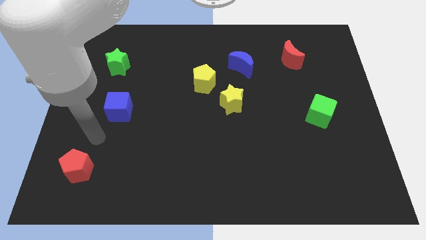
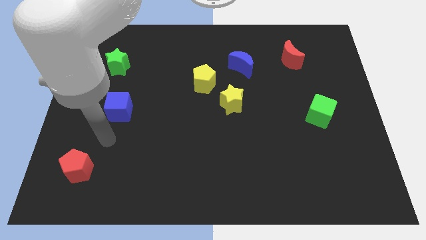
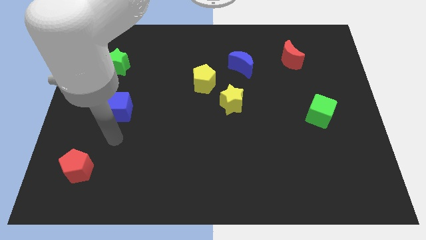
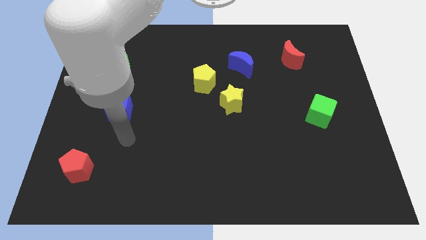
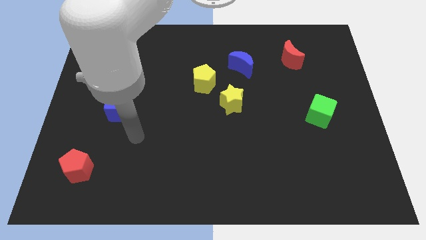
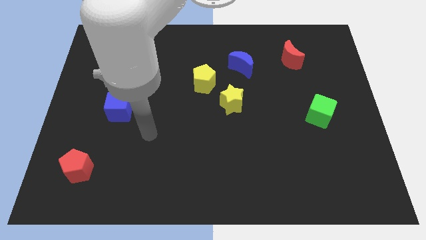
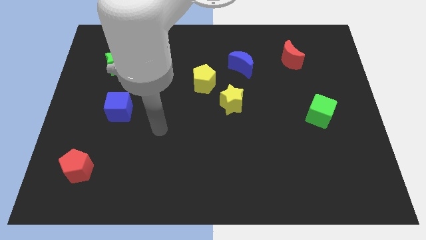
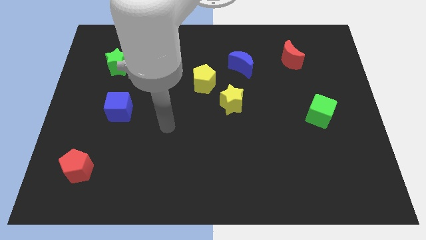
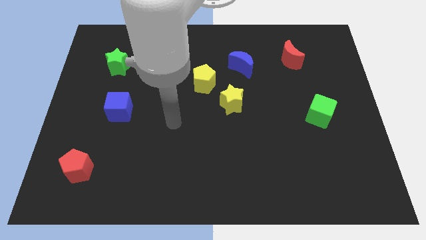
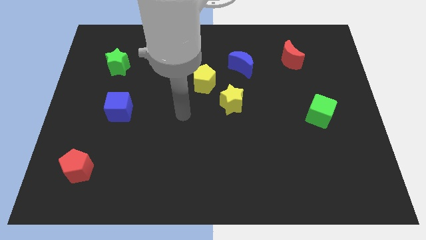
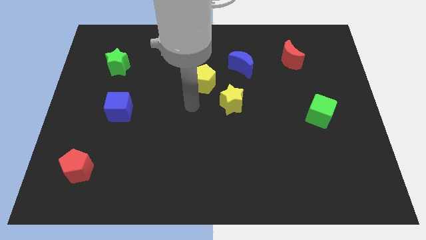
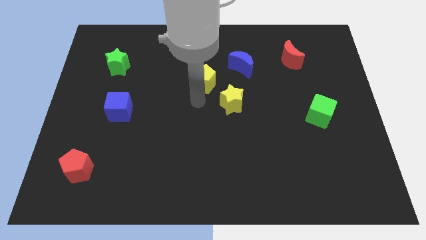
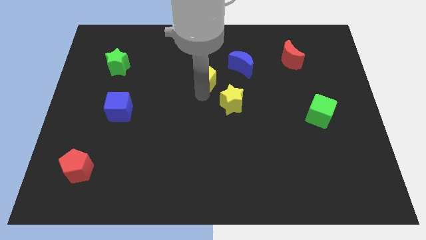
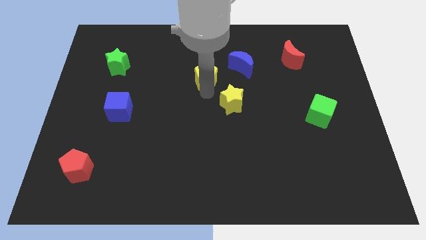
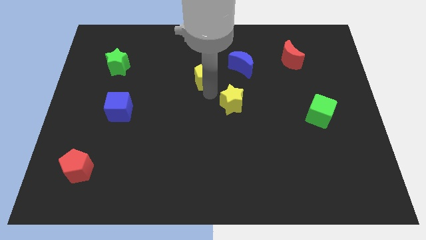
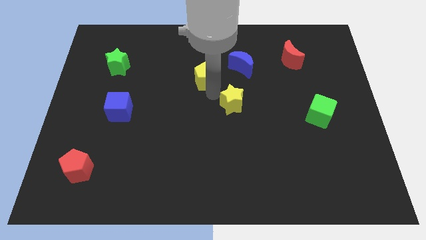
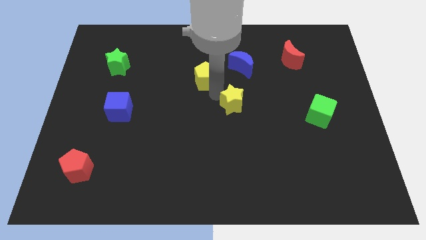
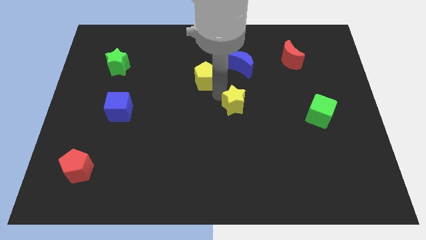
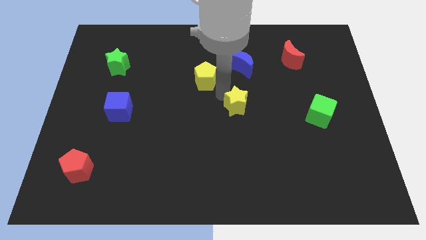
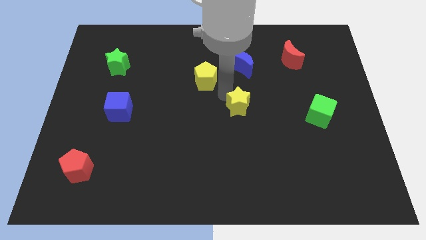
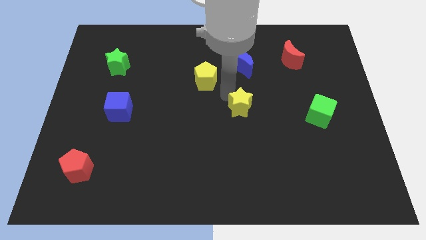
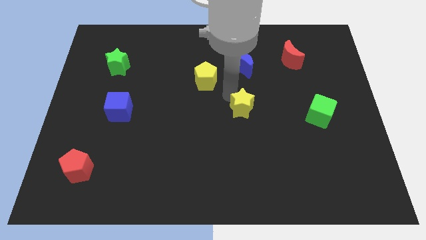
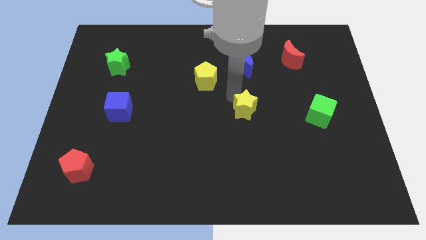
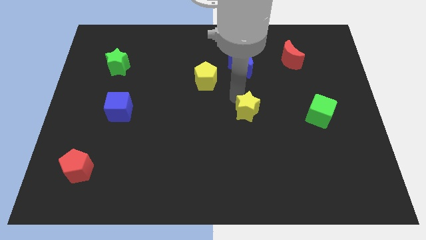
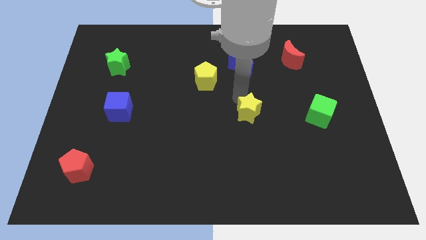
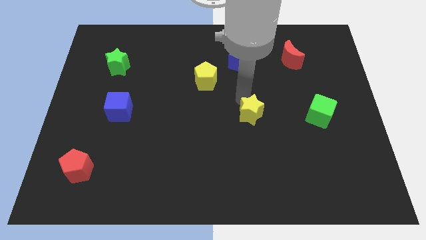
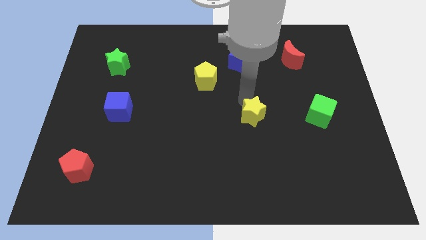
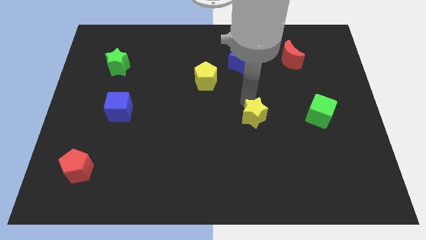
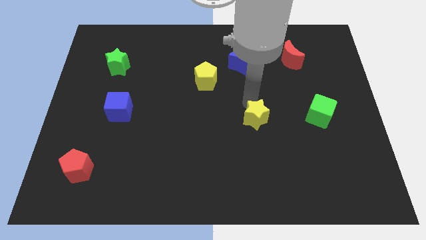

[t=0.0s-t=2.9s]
move the yellow star slightly down and right

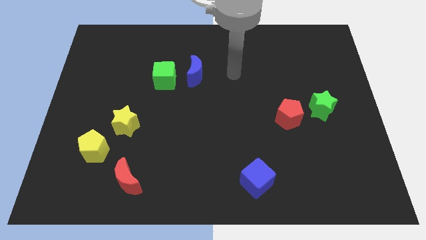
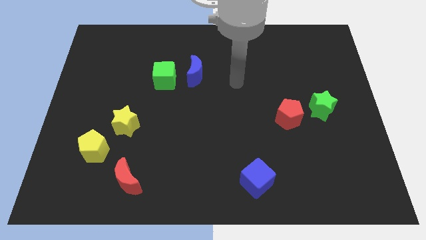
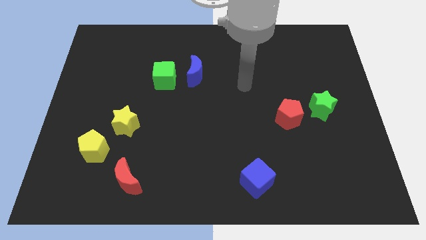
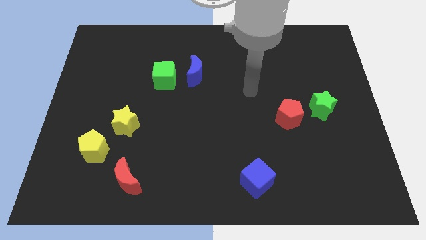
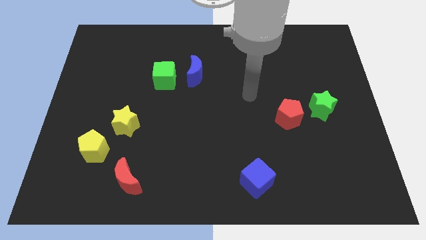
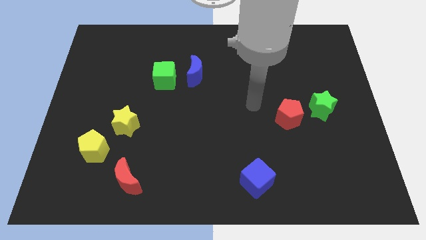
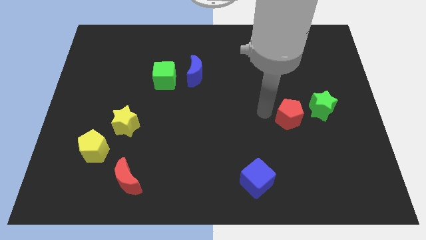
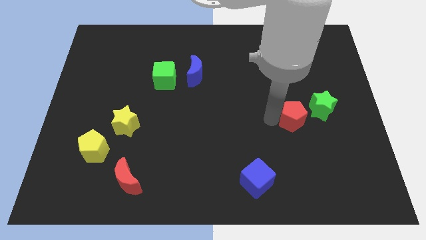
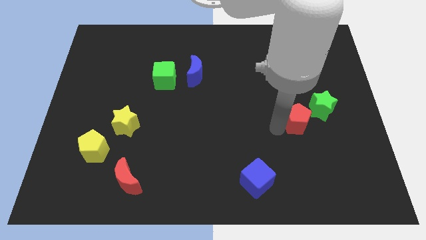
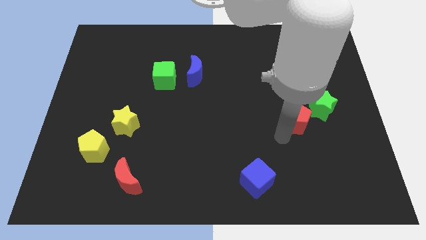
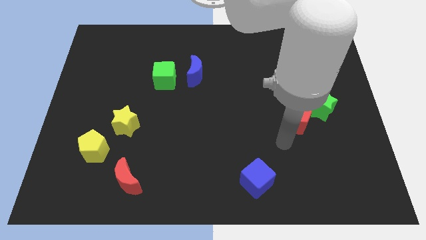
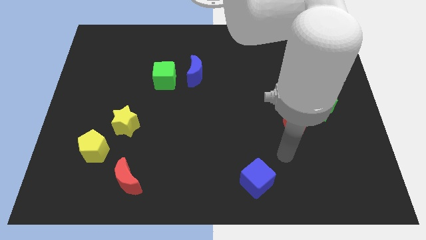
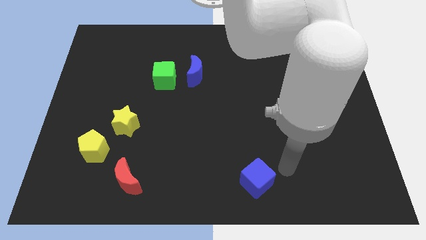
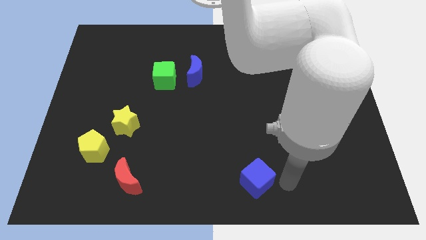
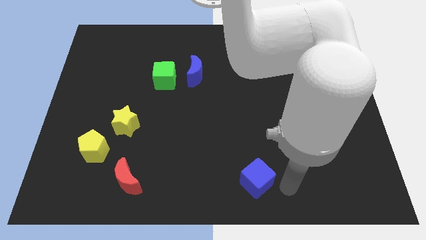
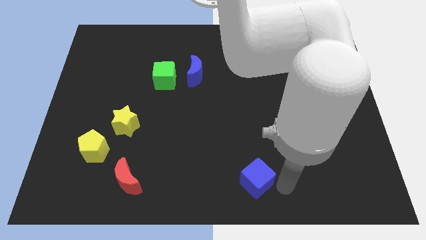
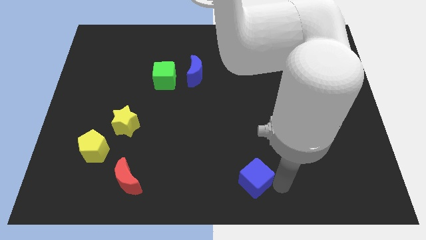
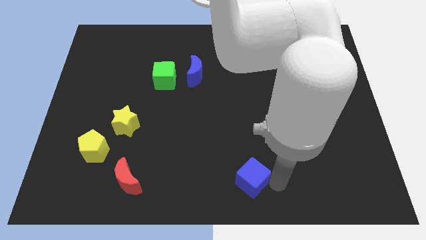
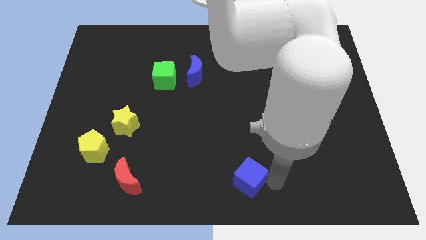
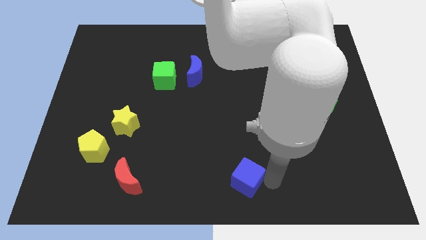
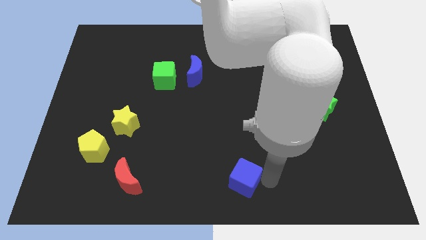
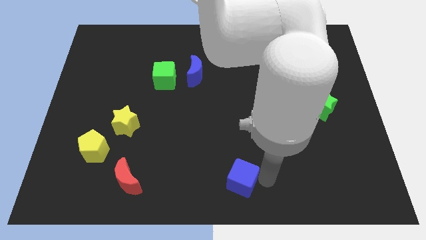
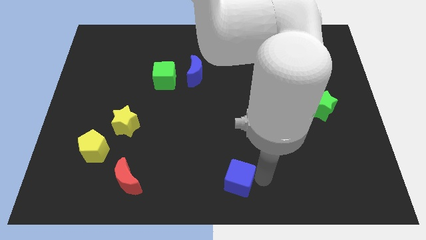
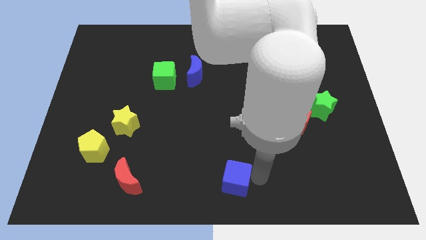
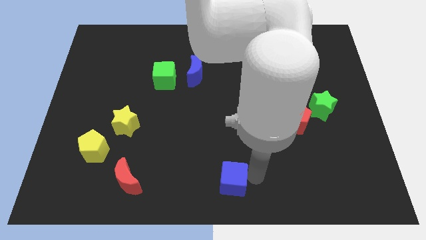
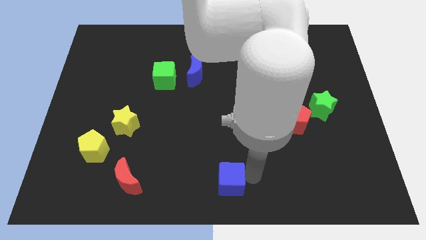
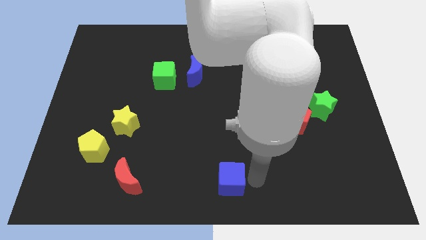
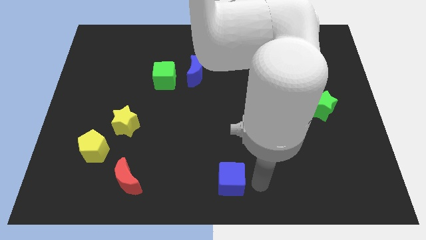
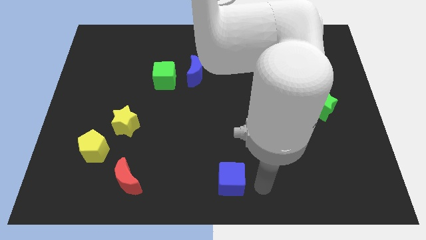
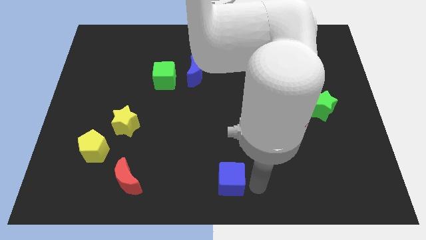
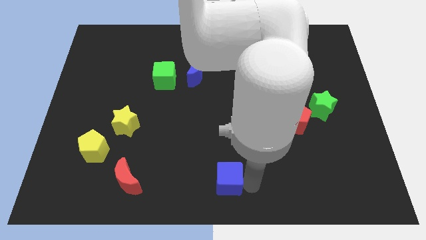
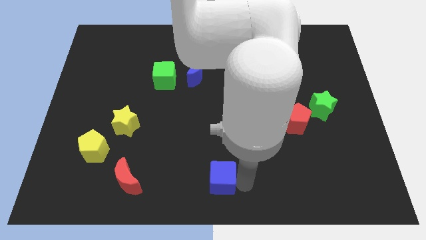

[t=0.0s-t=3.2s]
push the blue cube slightly left

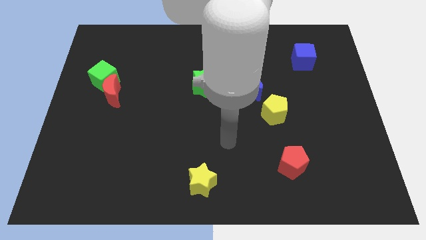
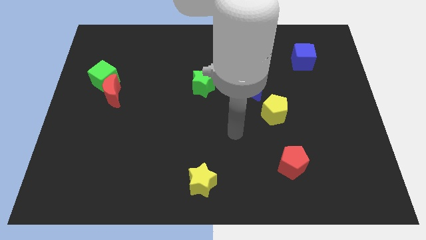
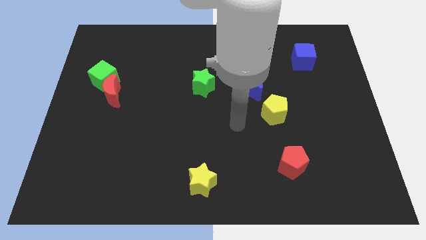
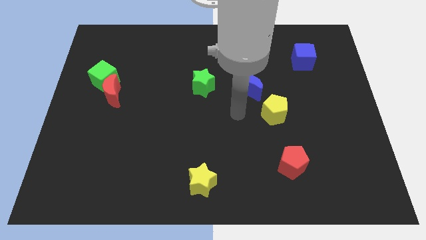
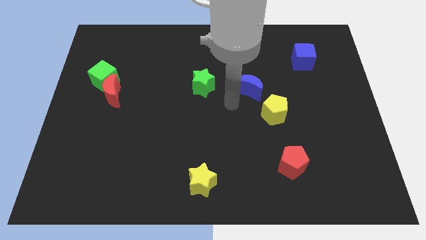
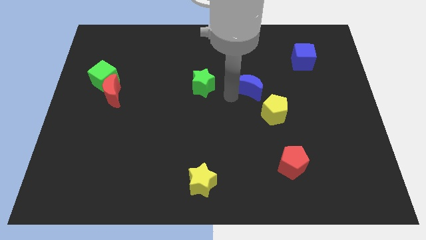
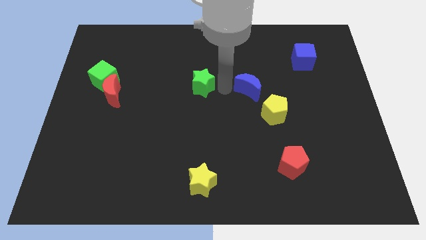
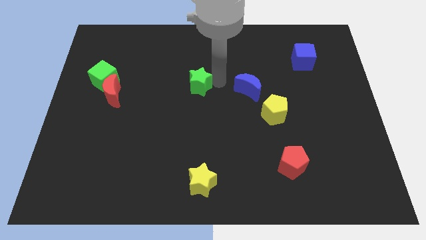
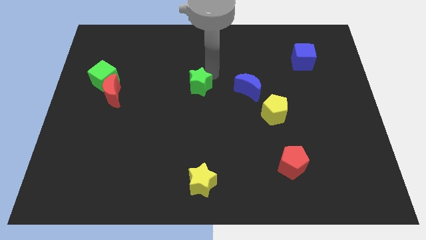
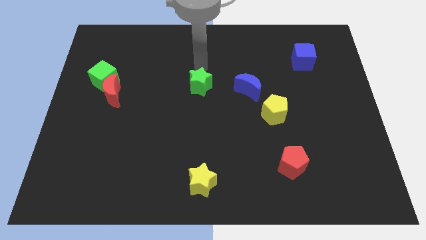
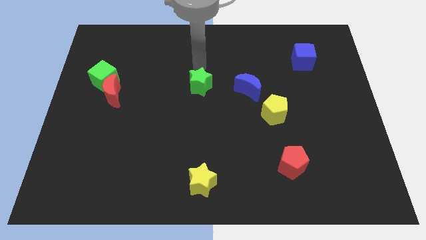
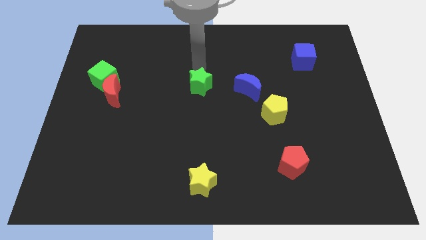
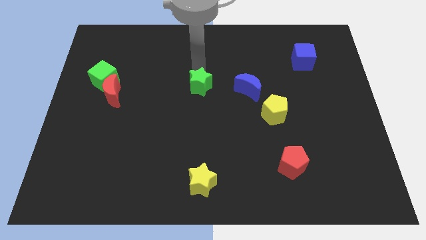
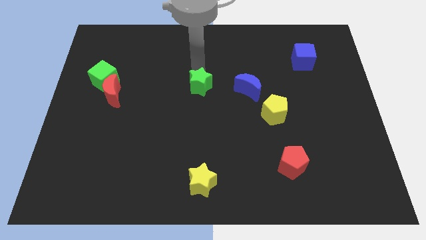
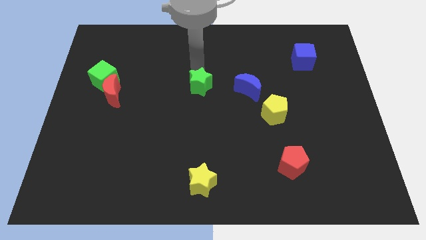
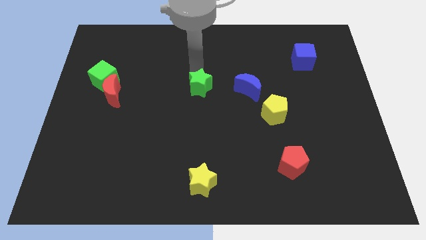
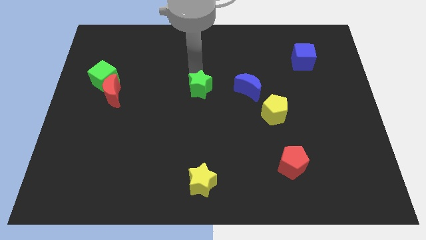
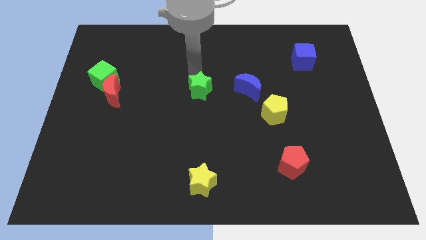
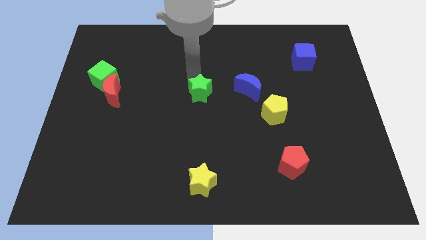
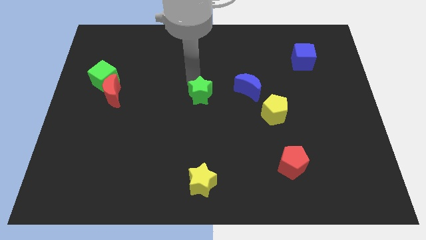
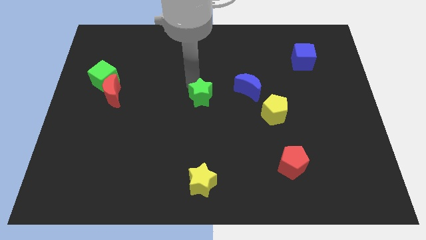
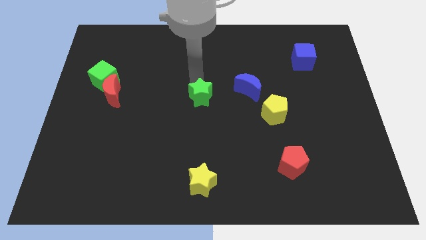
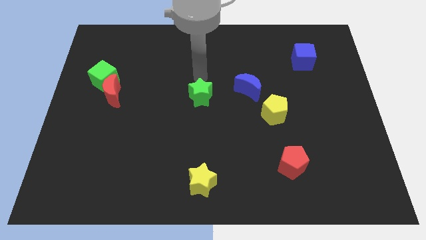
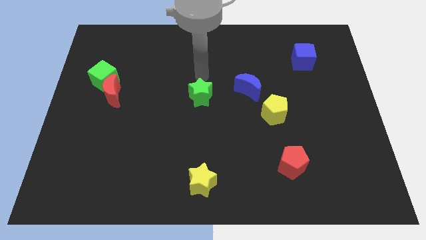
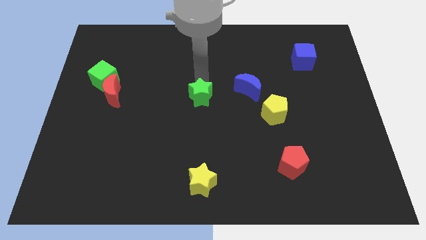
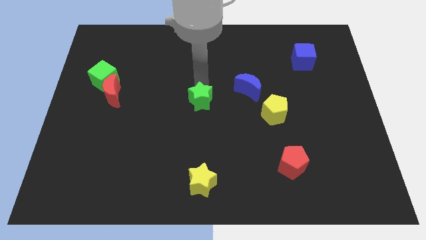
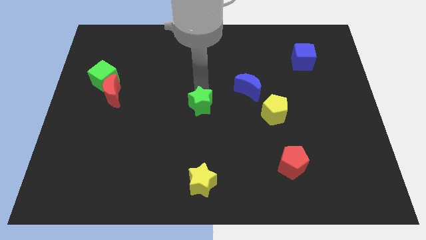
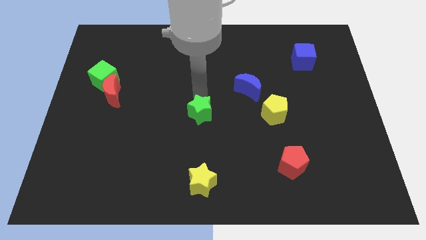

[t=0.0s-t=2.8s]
slide the green star a bit downwards
